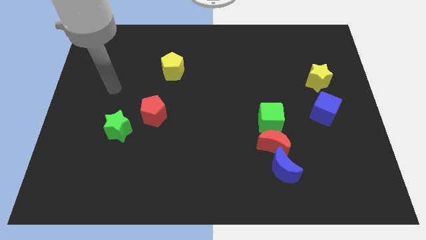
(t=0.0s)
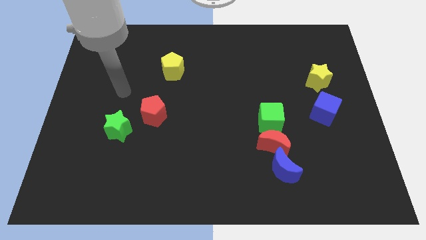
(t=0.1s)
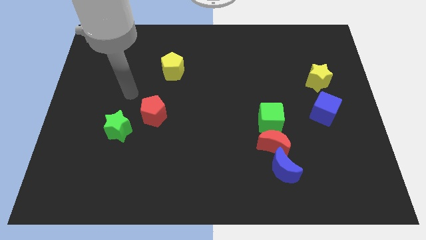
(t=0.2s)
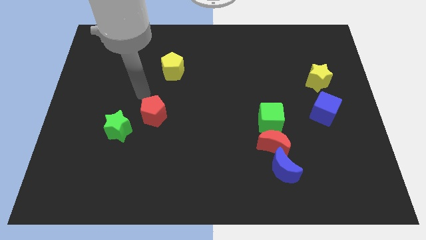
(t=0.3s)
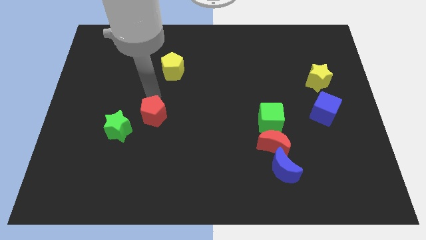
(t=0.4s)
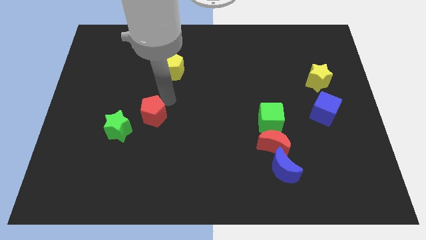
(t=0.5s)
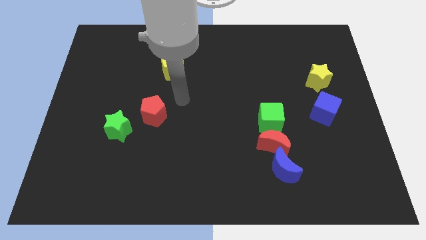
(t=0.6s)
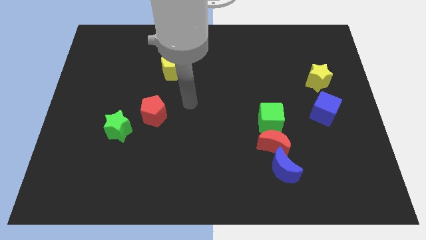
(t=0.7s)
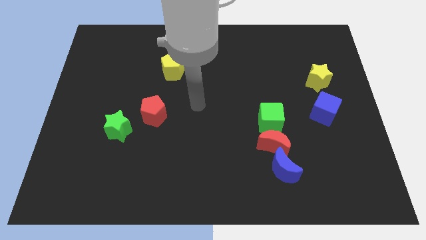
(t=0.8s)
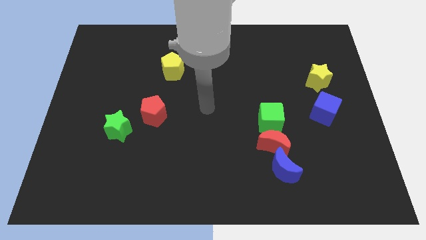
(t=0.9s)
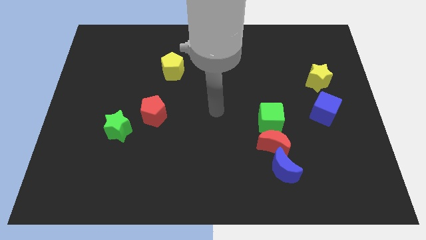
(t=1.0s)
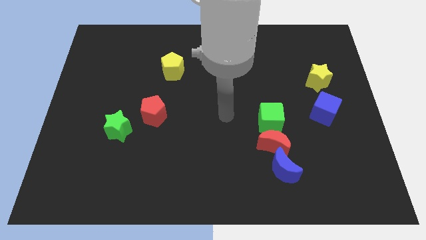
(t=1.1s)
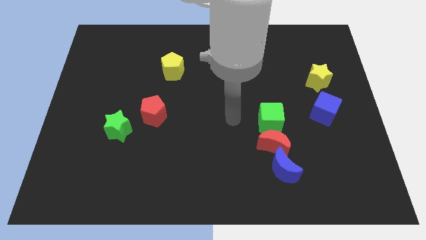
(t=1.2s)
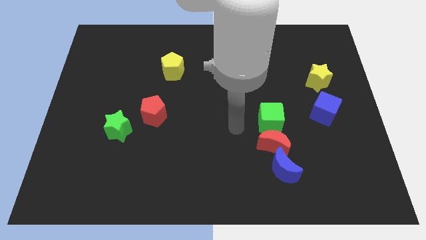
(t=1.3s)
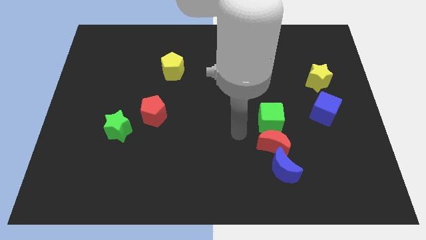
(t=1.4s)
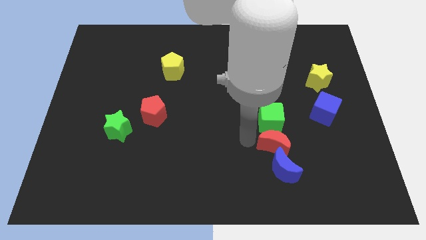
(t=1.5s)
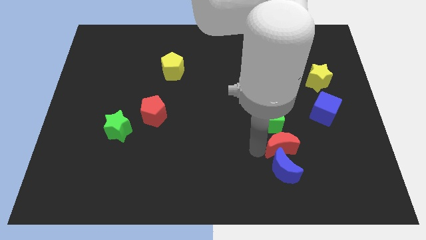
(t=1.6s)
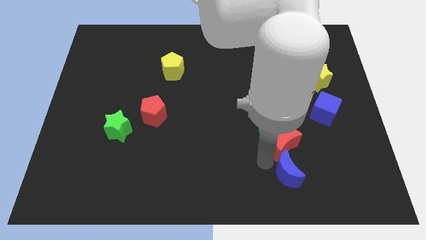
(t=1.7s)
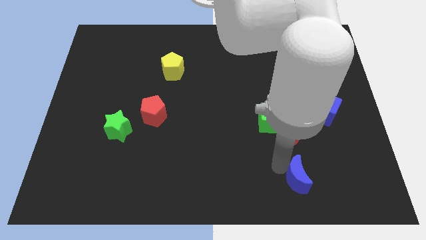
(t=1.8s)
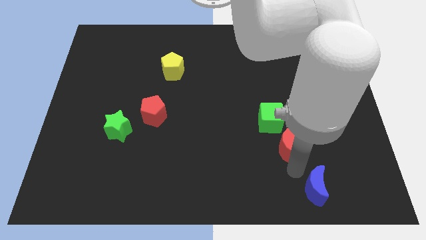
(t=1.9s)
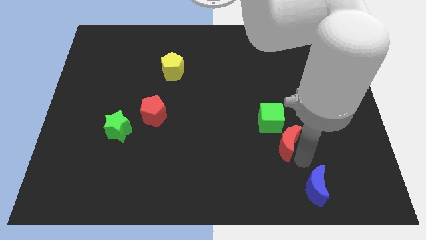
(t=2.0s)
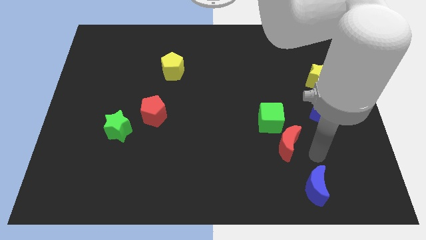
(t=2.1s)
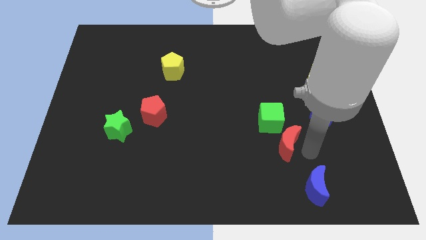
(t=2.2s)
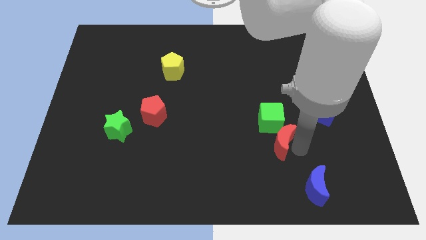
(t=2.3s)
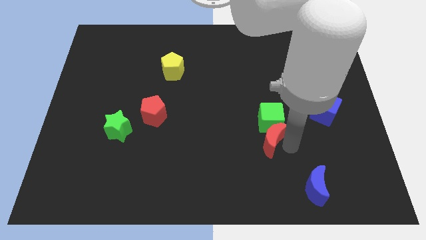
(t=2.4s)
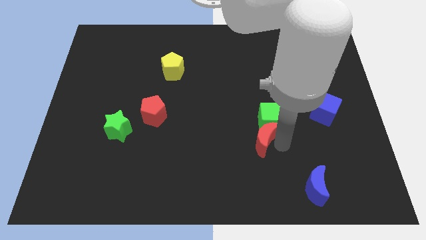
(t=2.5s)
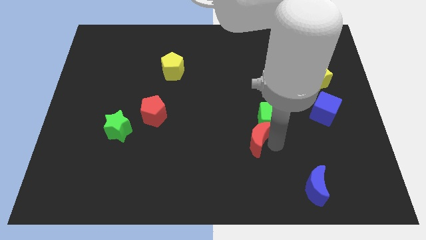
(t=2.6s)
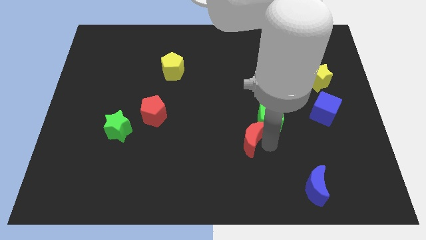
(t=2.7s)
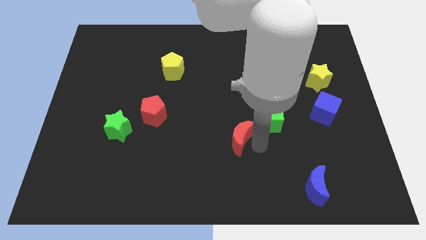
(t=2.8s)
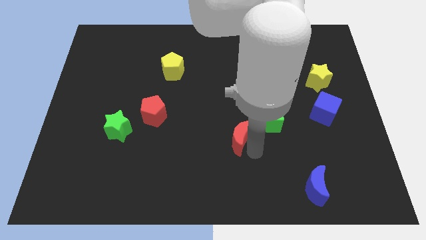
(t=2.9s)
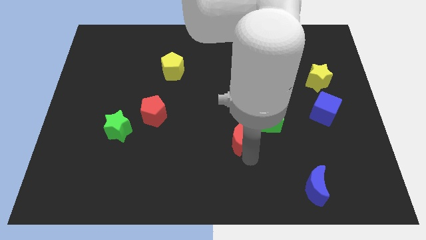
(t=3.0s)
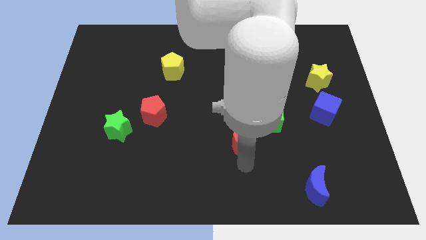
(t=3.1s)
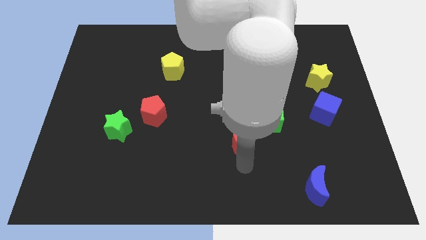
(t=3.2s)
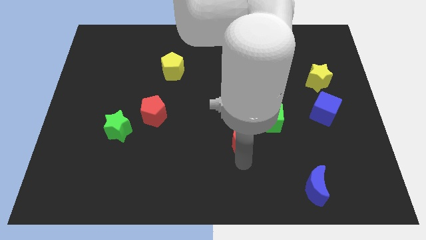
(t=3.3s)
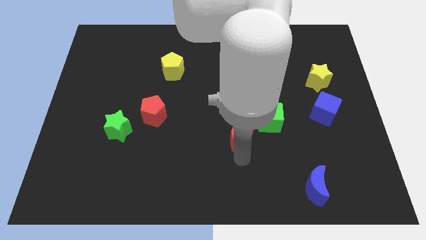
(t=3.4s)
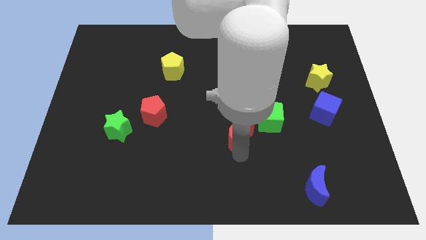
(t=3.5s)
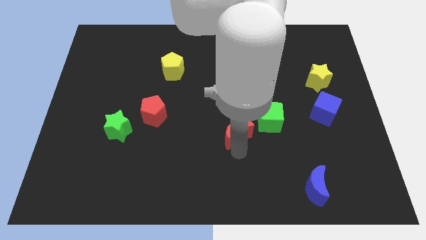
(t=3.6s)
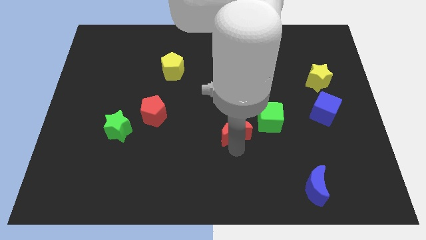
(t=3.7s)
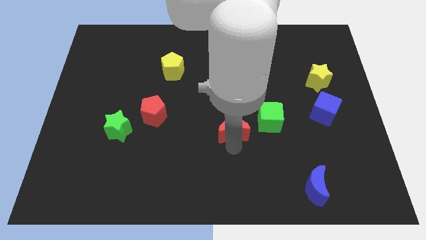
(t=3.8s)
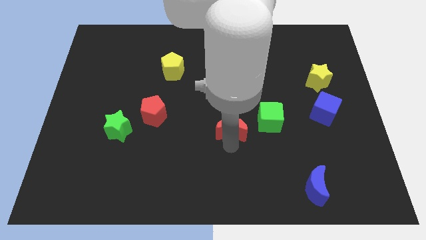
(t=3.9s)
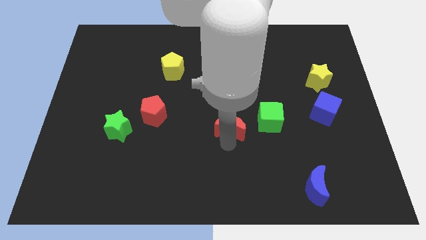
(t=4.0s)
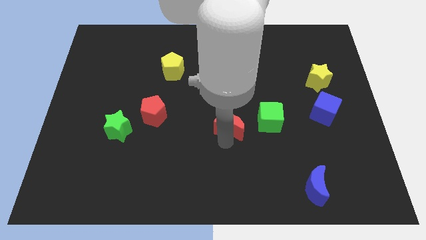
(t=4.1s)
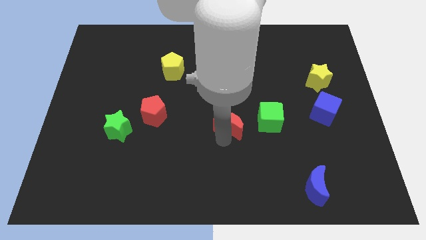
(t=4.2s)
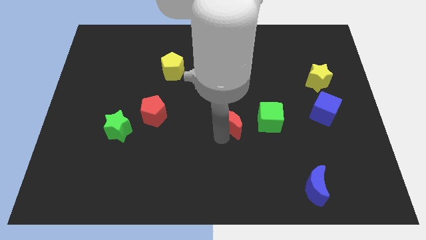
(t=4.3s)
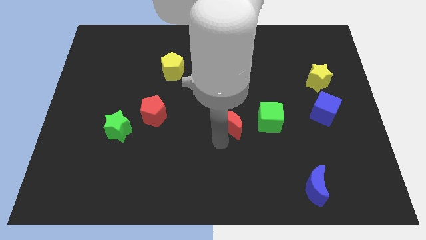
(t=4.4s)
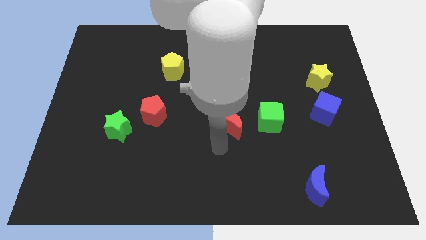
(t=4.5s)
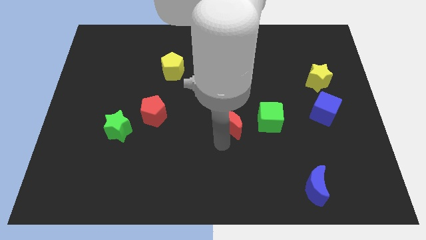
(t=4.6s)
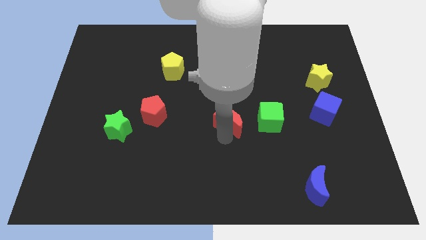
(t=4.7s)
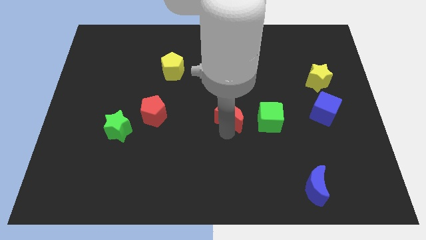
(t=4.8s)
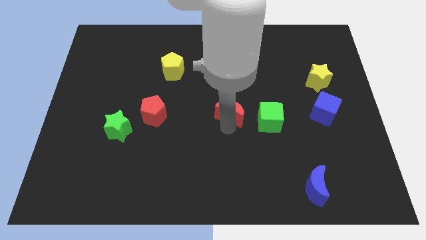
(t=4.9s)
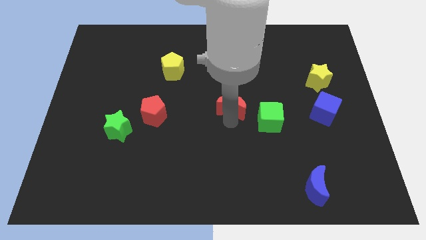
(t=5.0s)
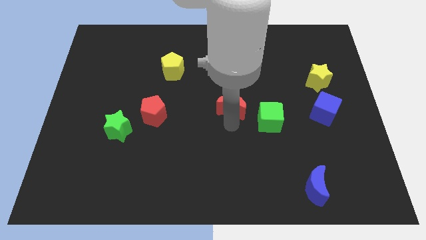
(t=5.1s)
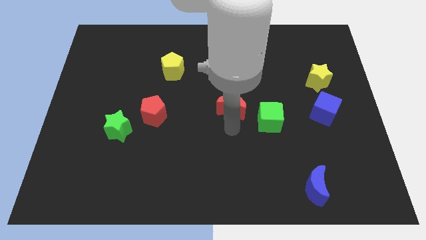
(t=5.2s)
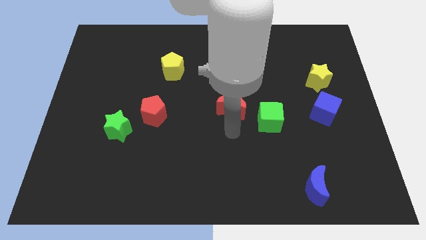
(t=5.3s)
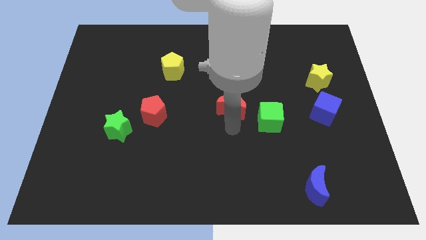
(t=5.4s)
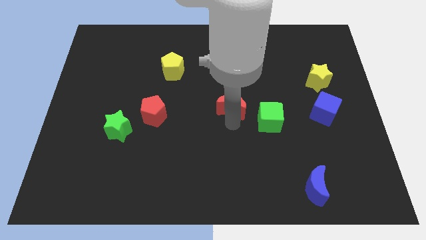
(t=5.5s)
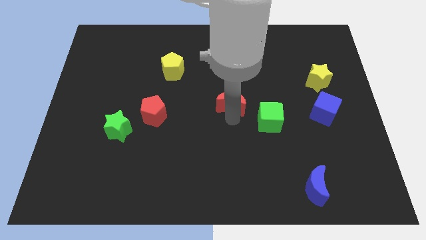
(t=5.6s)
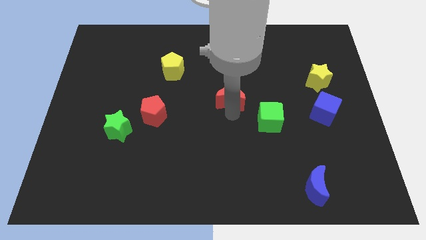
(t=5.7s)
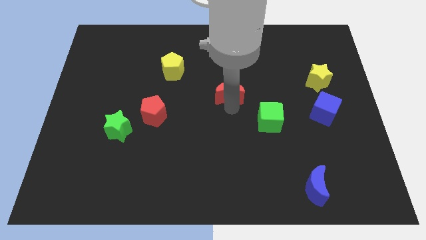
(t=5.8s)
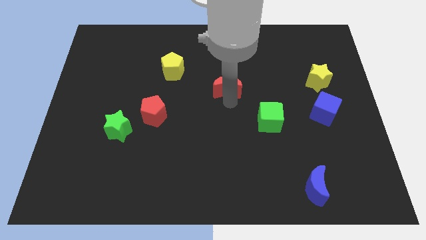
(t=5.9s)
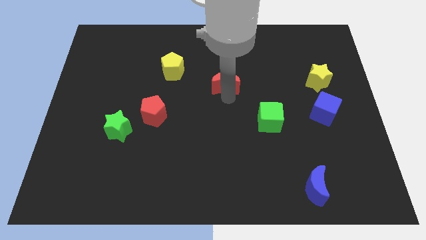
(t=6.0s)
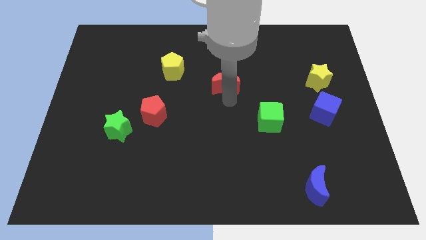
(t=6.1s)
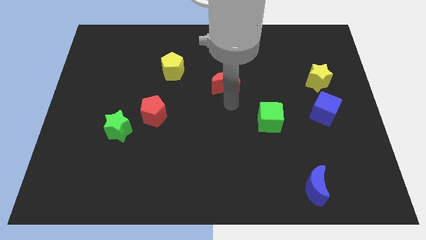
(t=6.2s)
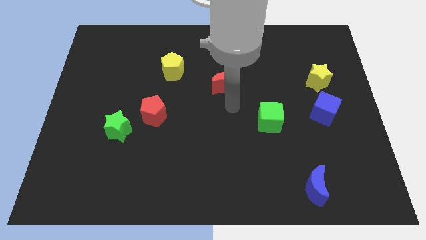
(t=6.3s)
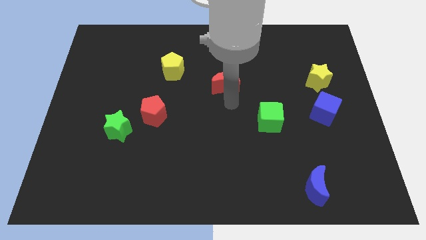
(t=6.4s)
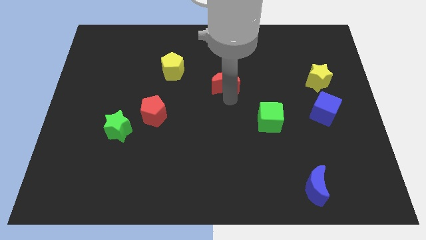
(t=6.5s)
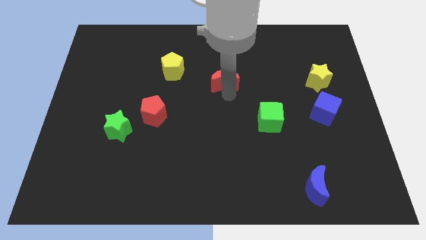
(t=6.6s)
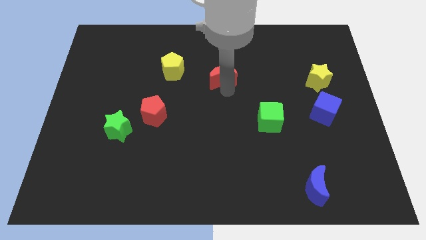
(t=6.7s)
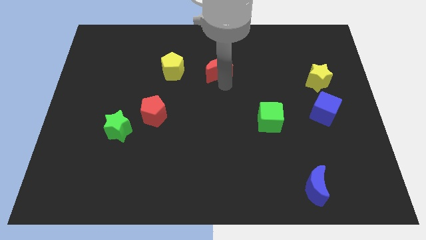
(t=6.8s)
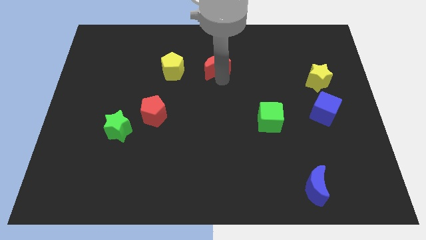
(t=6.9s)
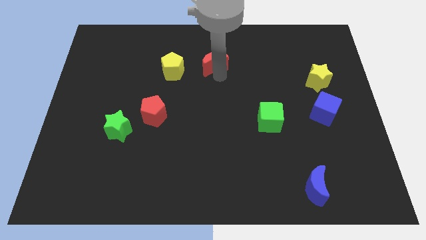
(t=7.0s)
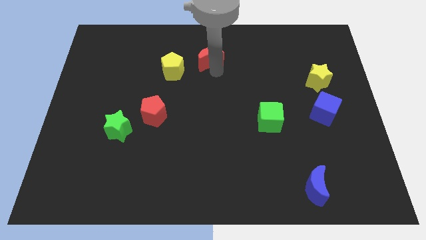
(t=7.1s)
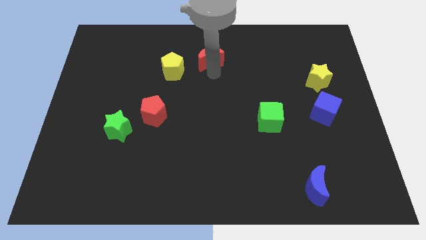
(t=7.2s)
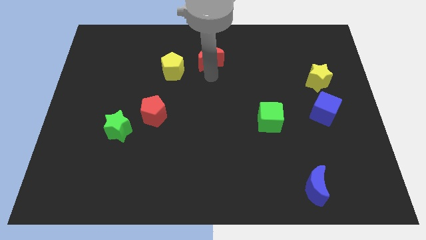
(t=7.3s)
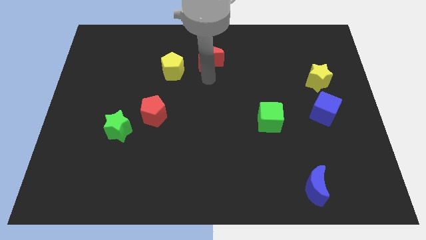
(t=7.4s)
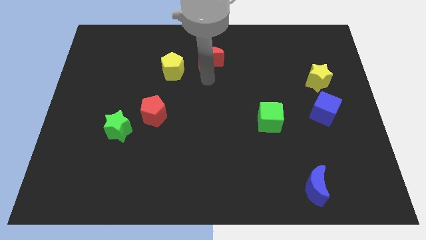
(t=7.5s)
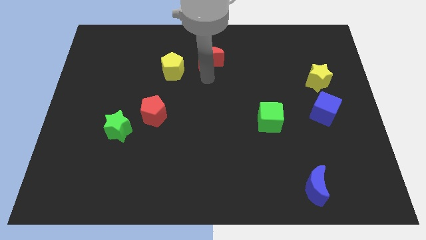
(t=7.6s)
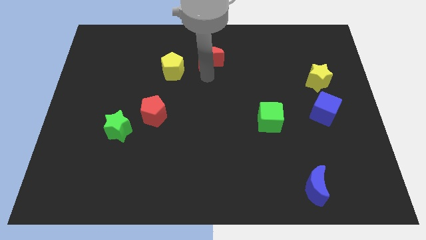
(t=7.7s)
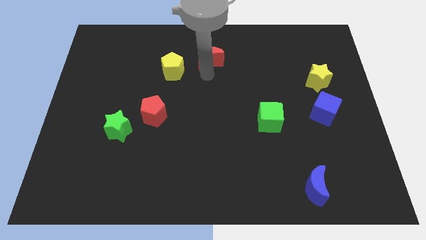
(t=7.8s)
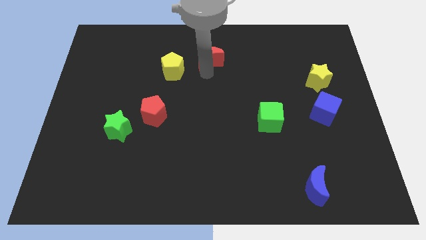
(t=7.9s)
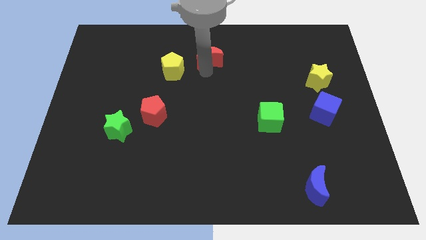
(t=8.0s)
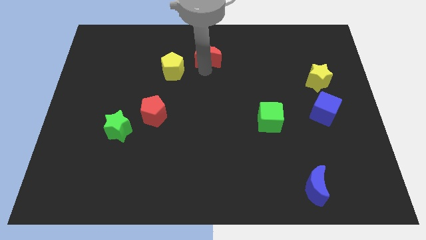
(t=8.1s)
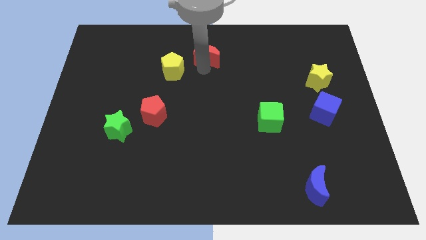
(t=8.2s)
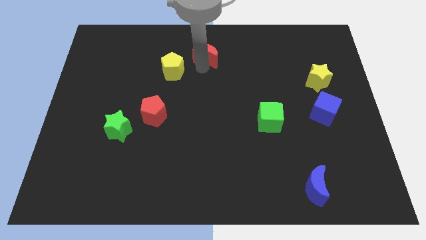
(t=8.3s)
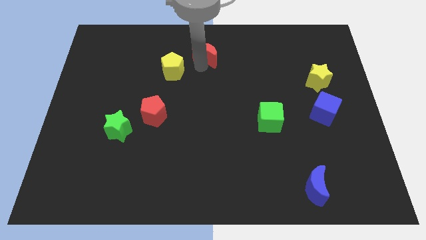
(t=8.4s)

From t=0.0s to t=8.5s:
put the red moon to the towards your base
